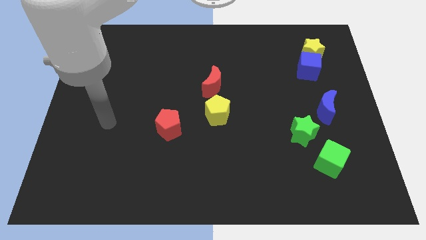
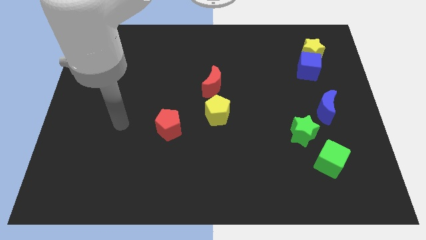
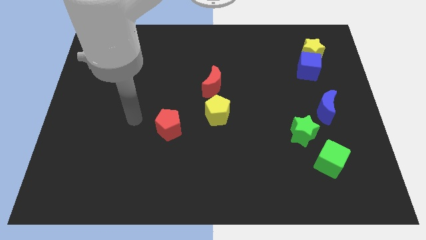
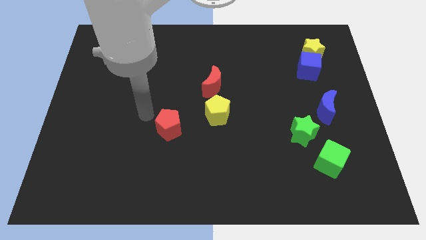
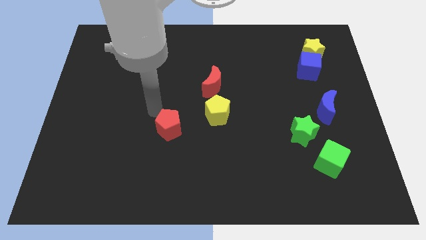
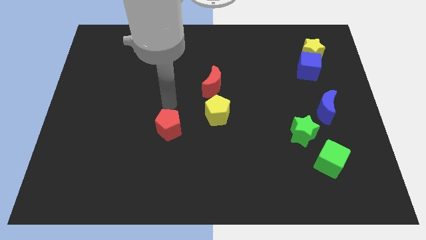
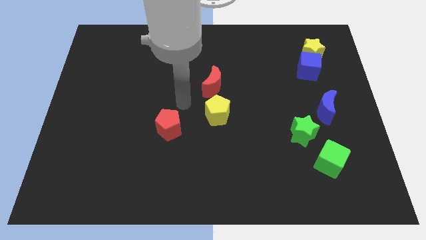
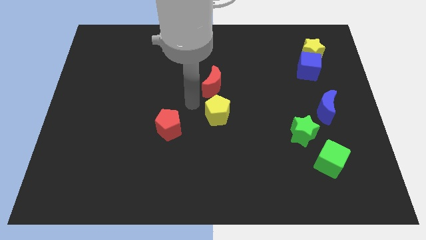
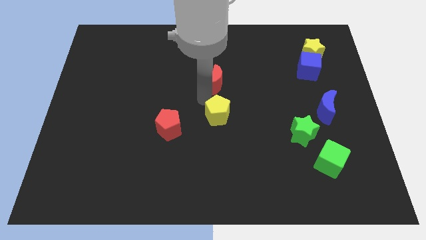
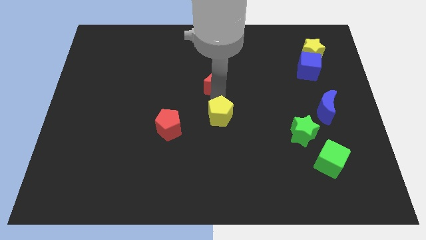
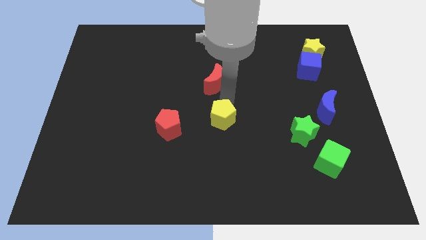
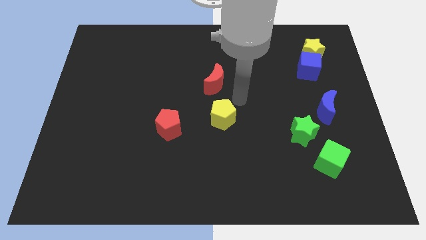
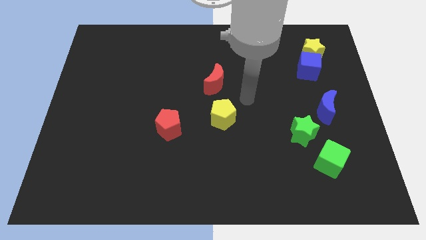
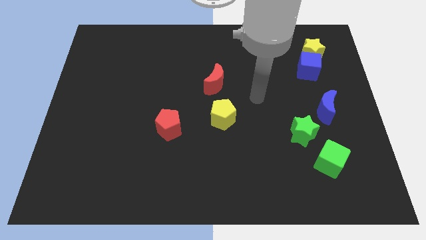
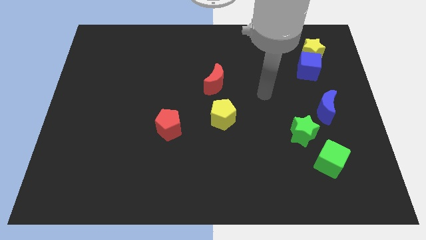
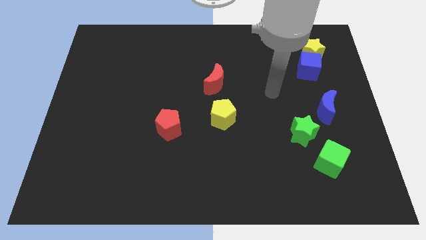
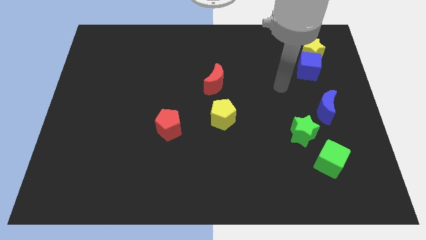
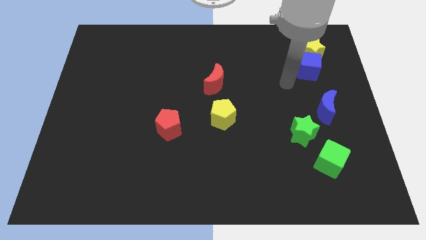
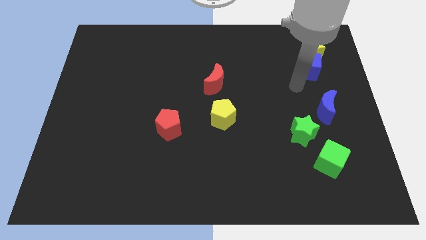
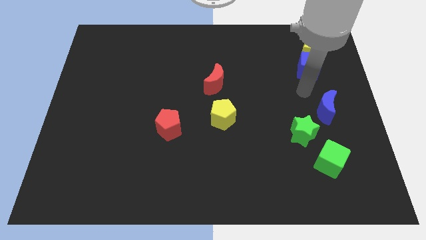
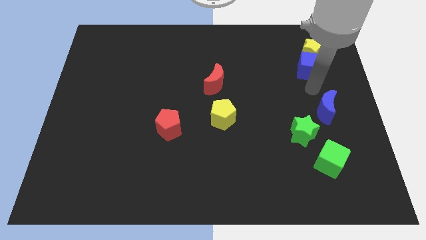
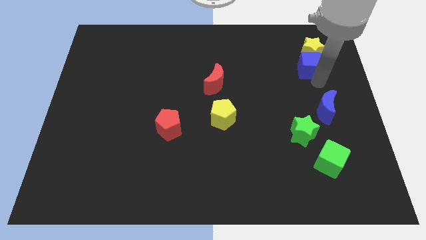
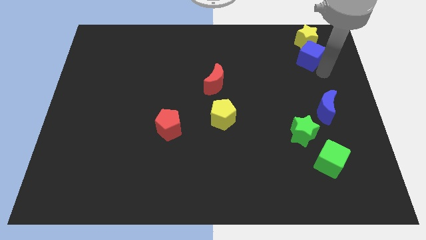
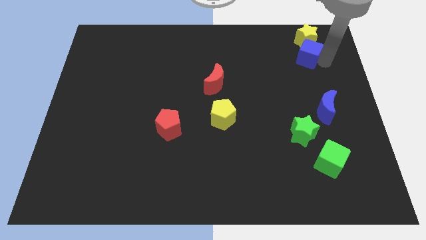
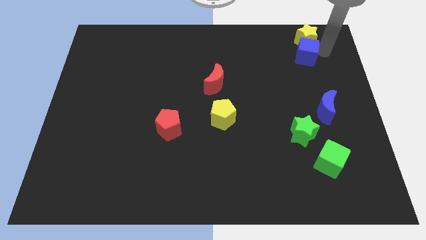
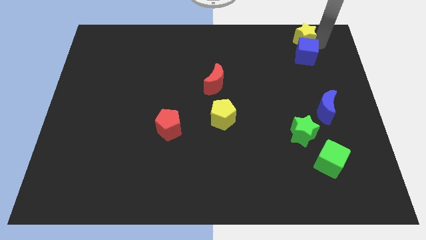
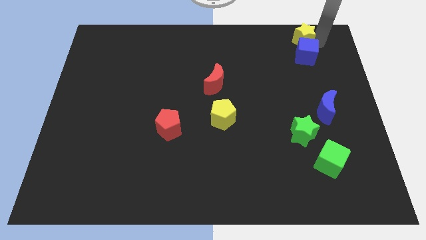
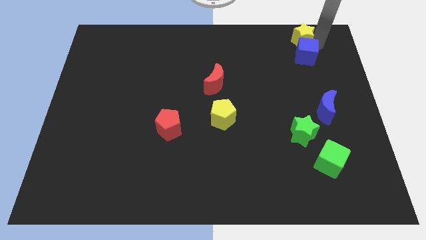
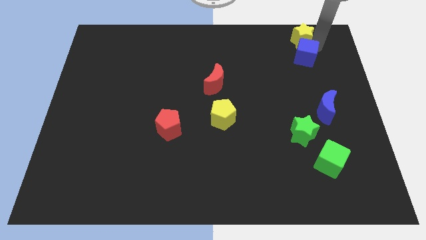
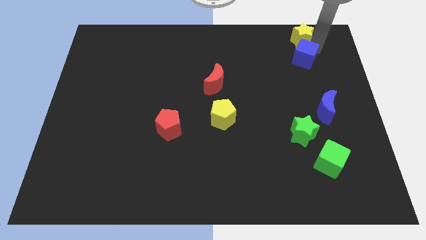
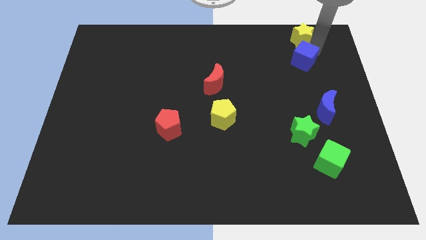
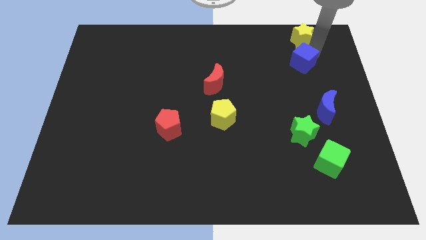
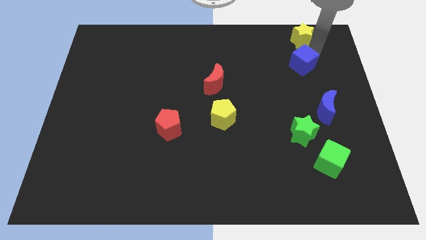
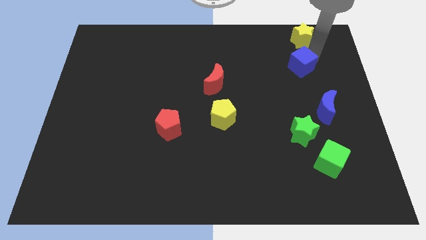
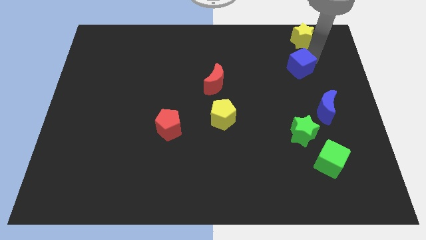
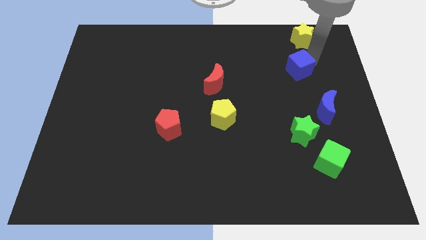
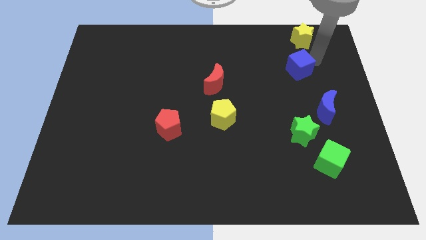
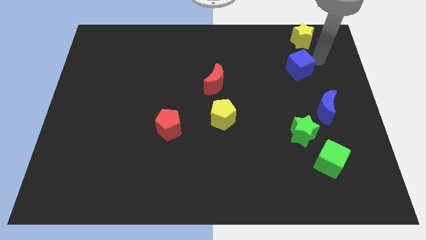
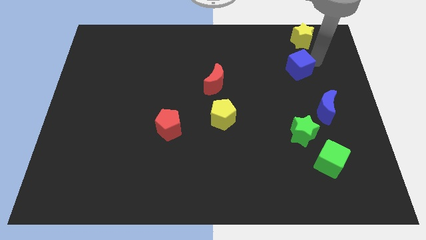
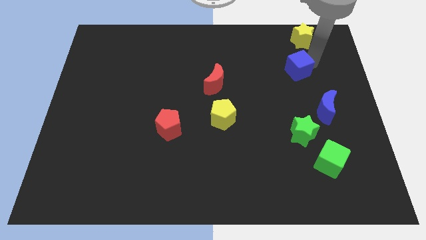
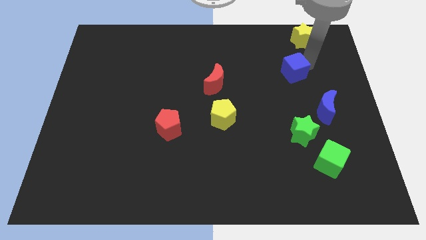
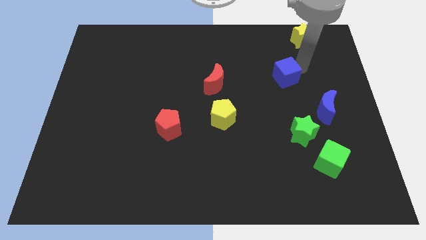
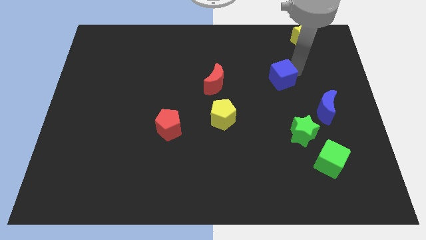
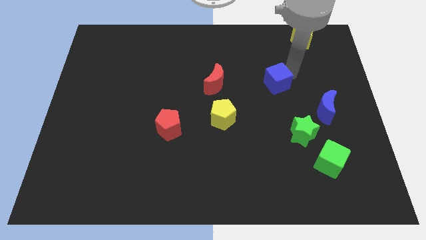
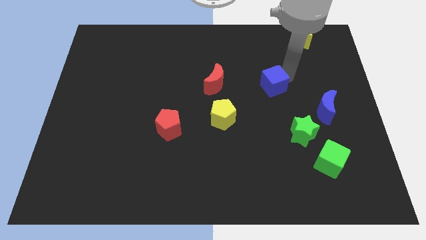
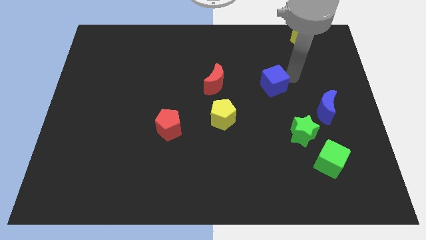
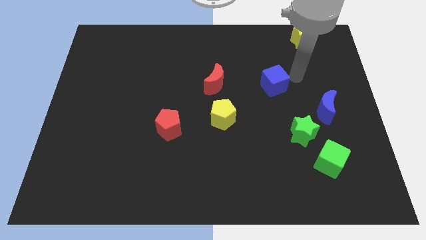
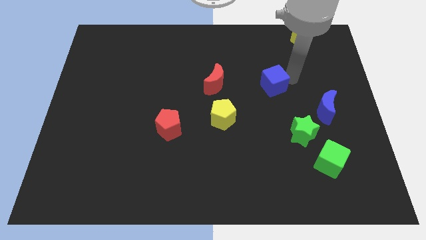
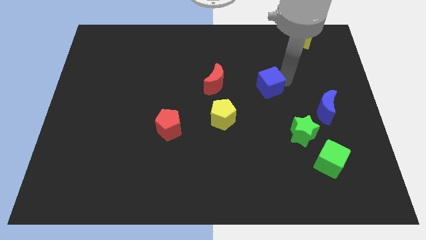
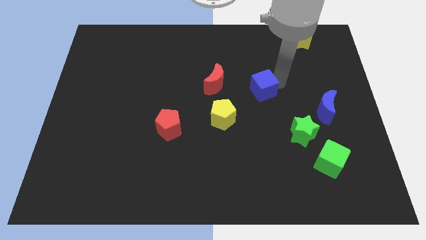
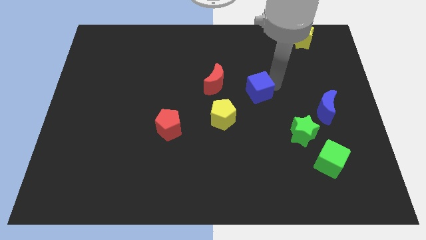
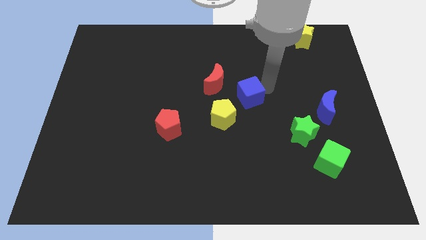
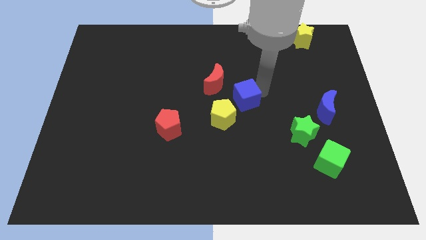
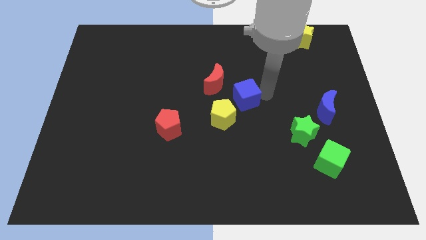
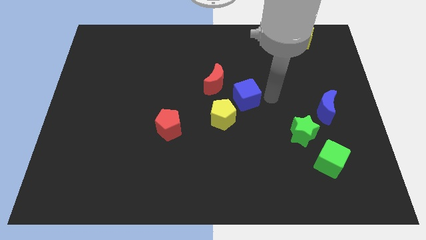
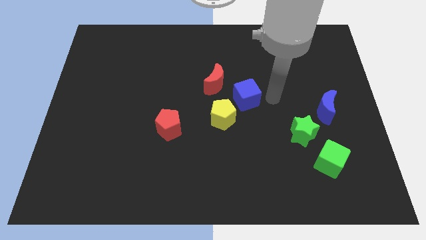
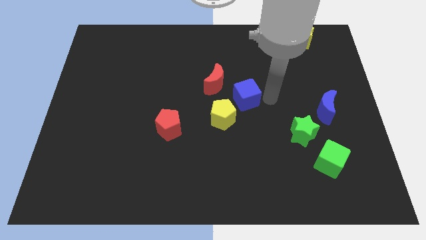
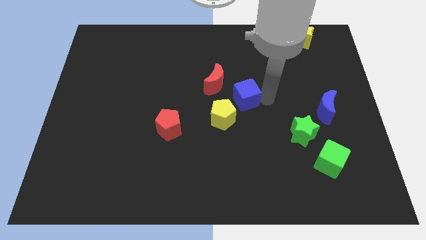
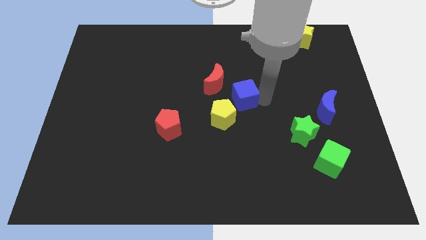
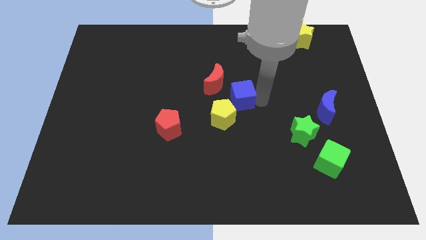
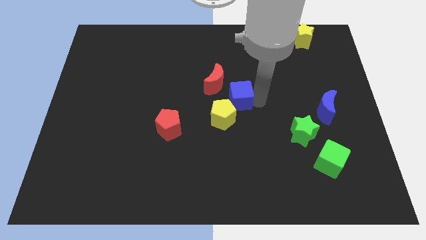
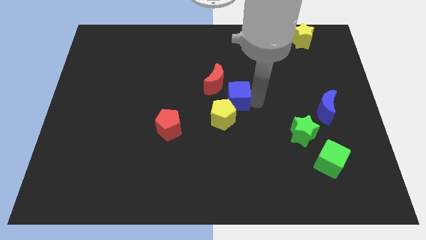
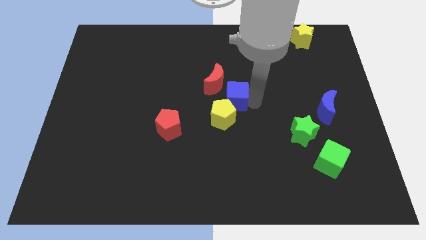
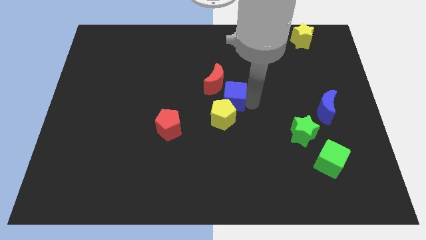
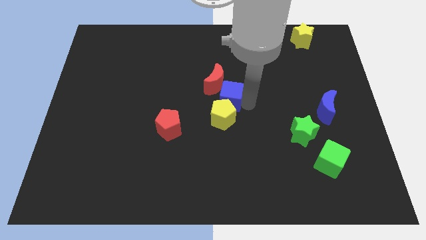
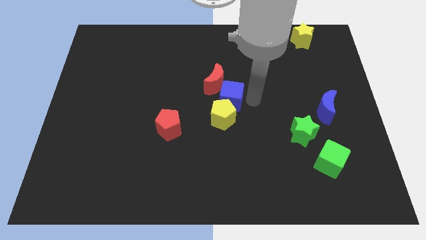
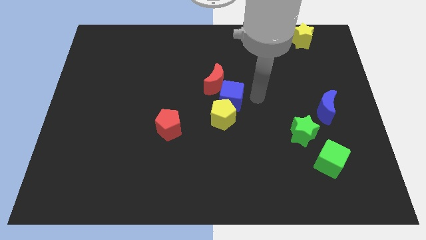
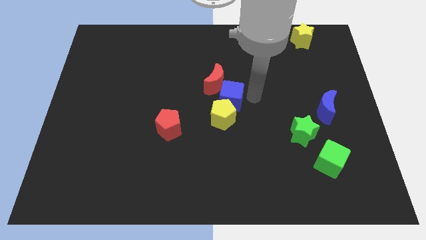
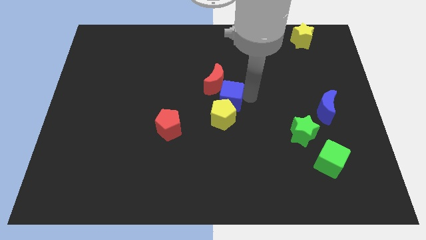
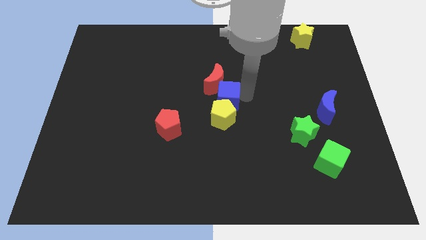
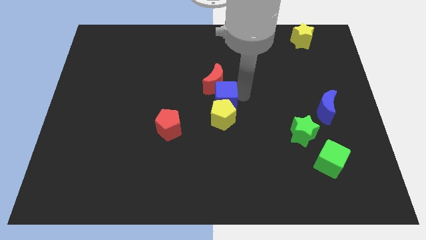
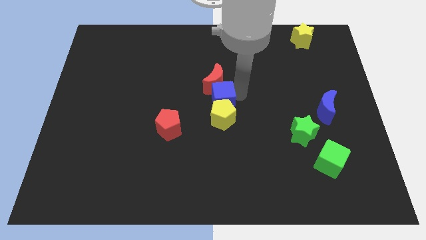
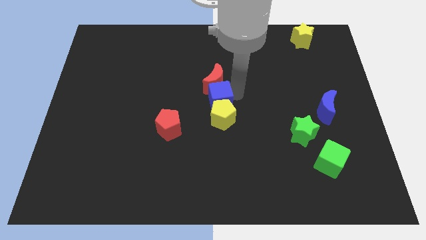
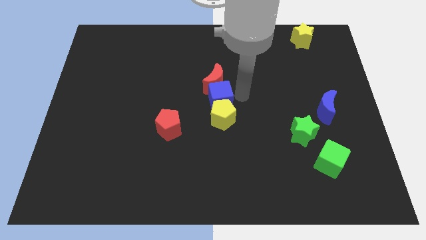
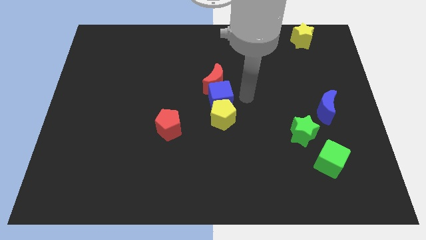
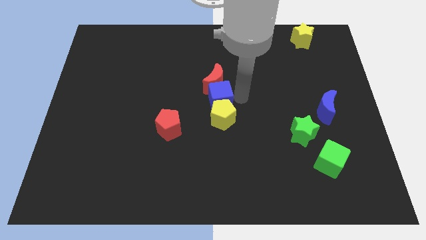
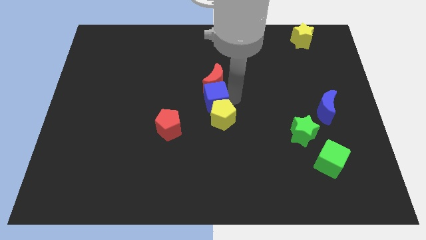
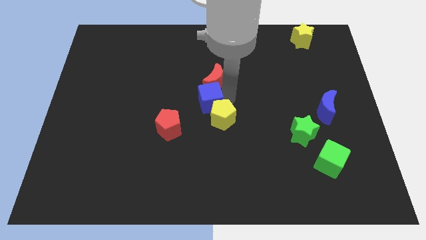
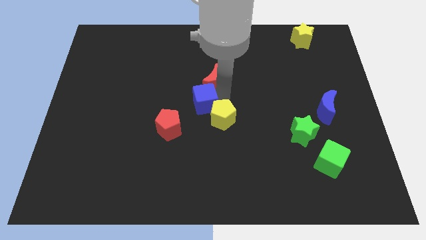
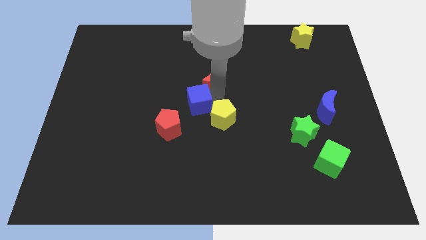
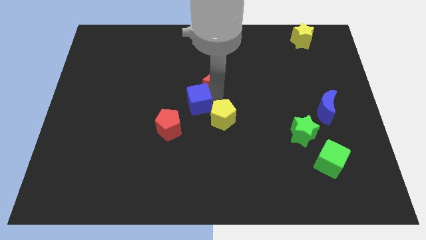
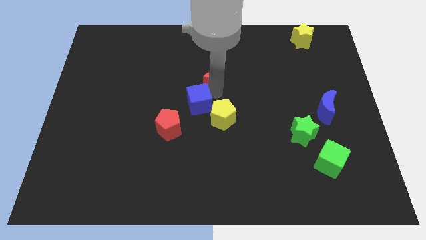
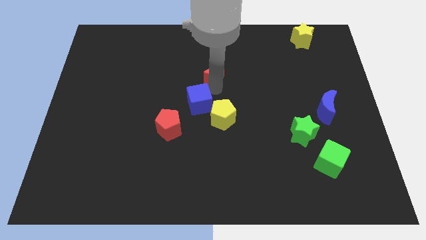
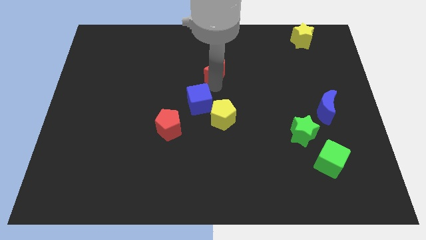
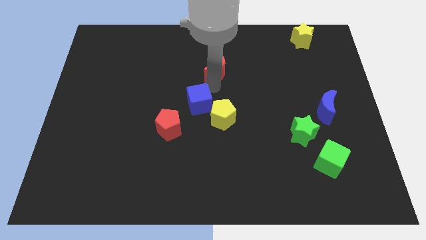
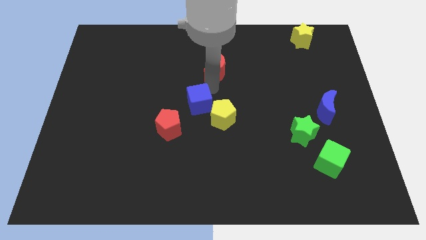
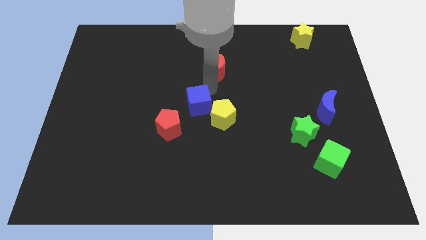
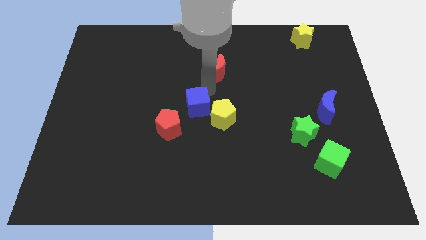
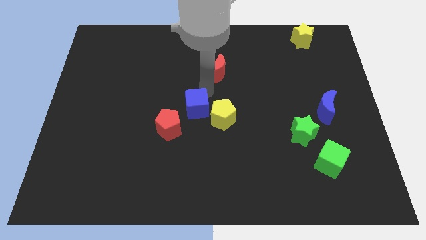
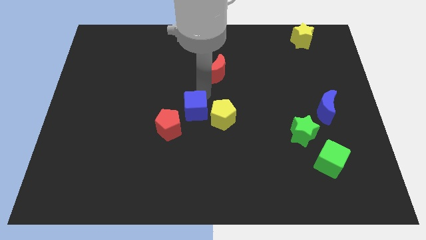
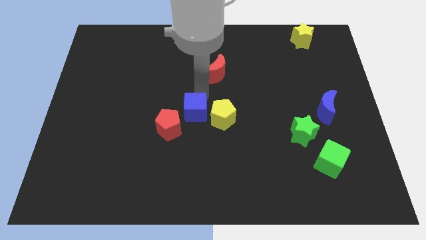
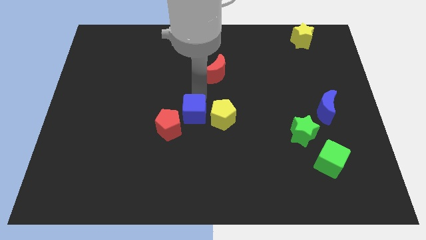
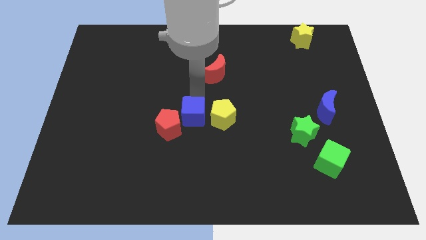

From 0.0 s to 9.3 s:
move the blue cube towards the red pentagon
